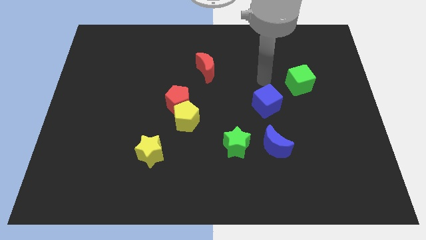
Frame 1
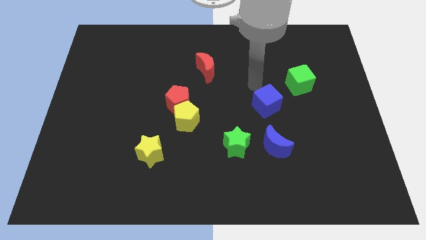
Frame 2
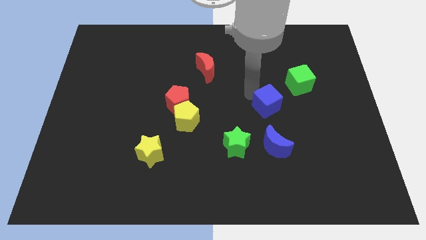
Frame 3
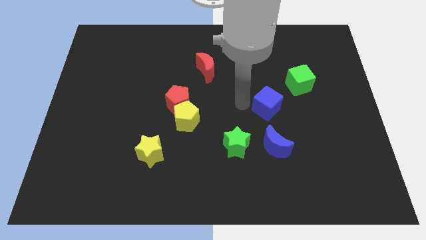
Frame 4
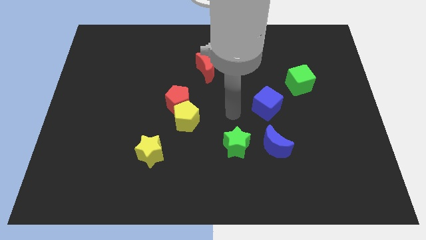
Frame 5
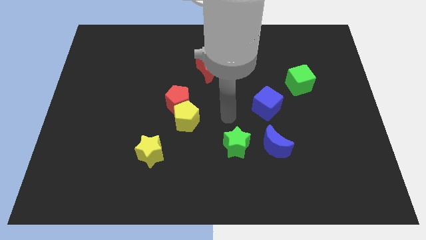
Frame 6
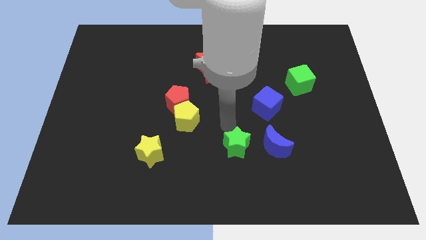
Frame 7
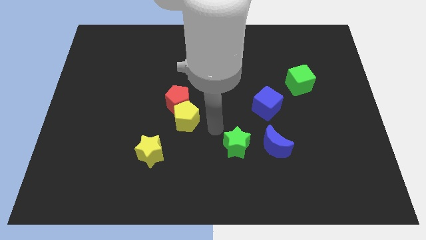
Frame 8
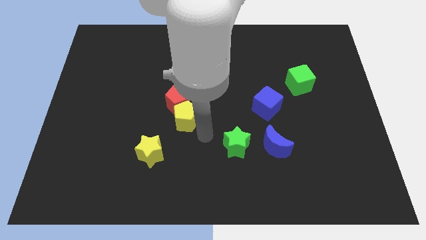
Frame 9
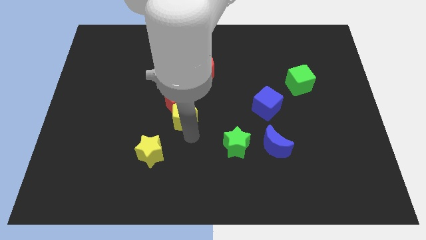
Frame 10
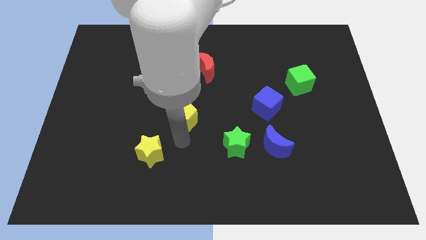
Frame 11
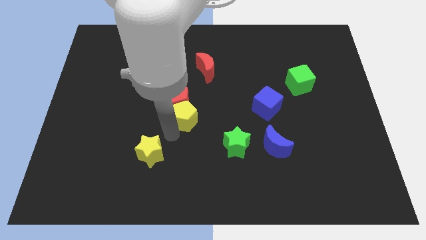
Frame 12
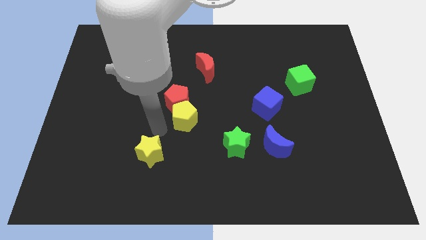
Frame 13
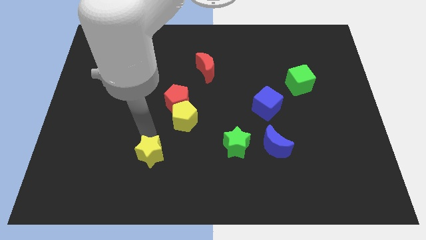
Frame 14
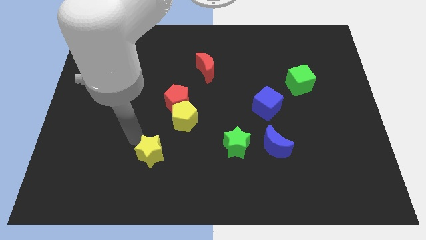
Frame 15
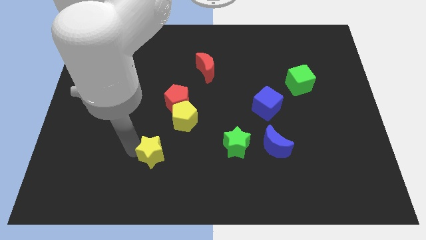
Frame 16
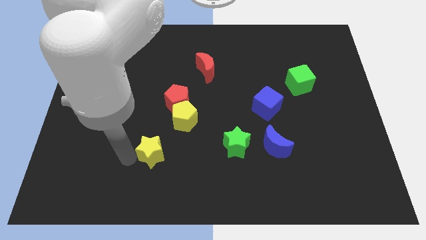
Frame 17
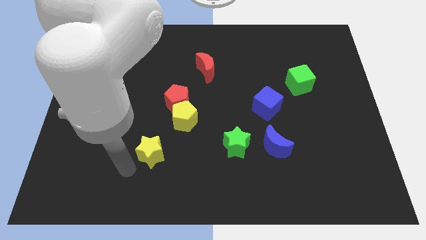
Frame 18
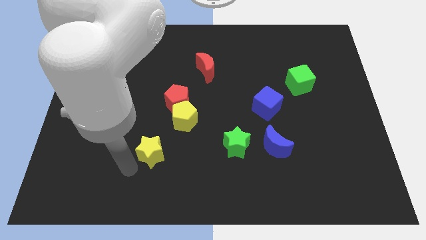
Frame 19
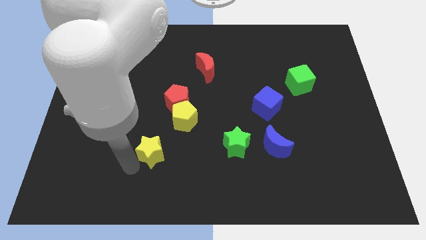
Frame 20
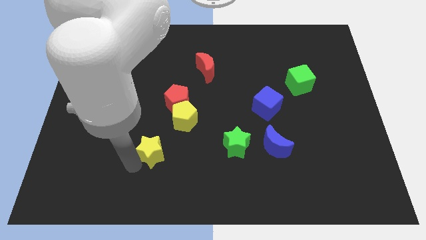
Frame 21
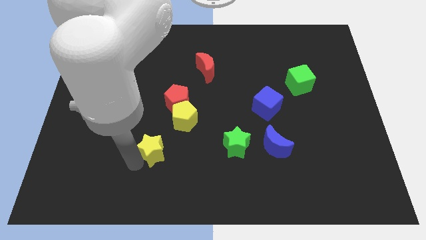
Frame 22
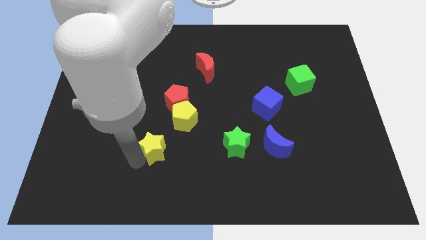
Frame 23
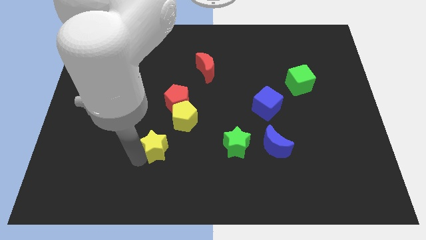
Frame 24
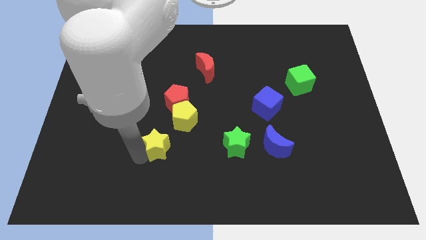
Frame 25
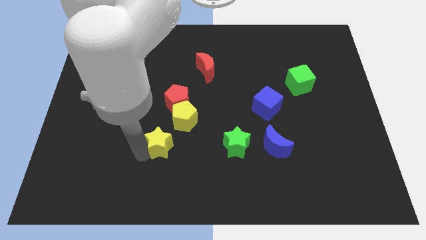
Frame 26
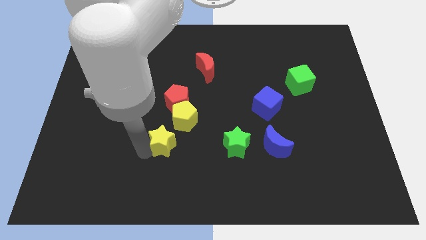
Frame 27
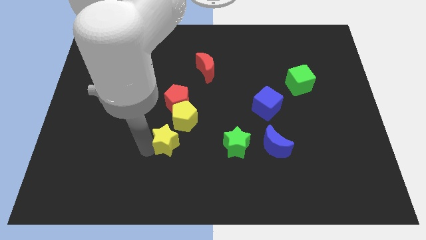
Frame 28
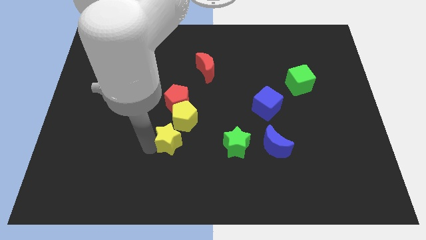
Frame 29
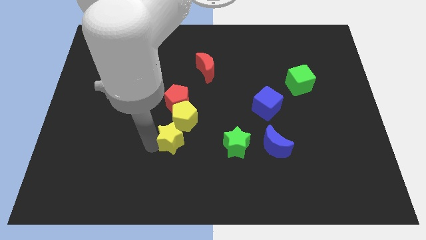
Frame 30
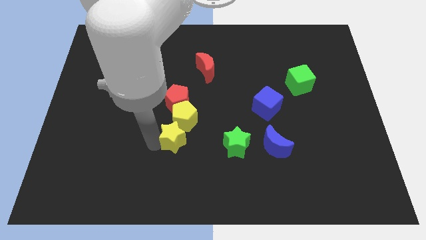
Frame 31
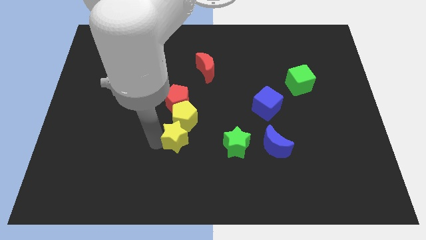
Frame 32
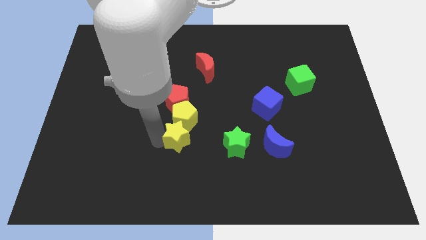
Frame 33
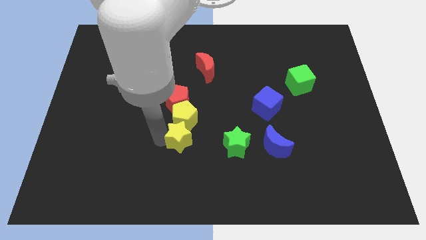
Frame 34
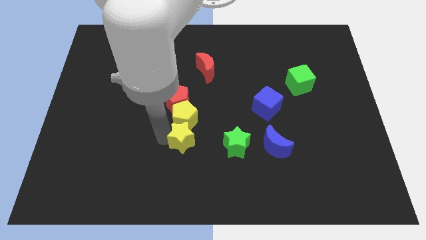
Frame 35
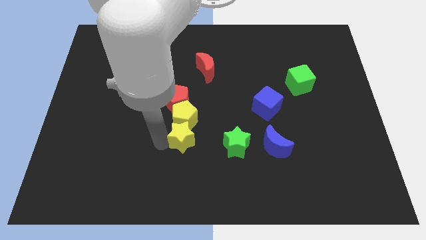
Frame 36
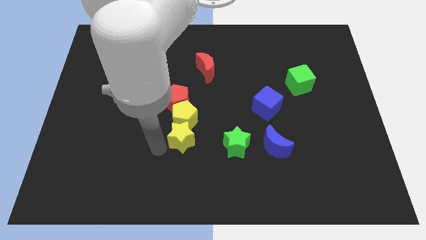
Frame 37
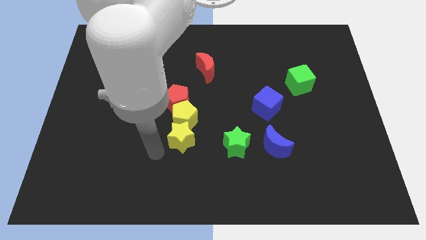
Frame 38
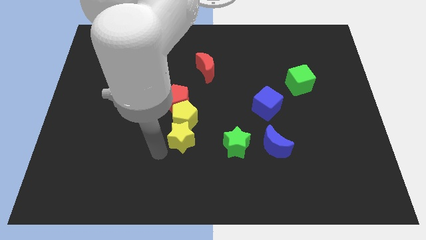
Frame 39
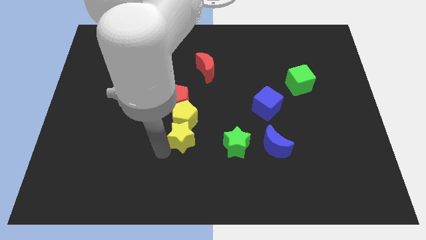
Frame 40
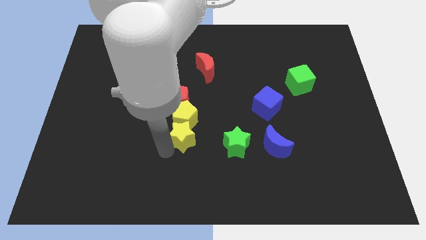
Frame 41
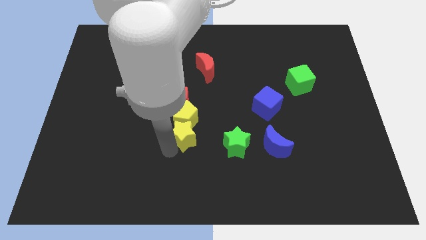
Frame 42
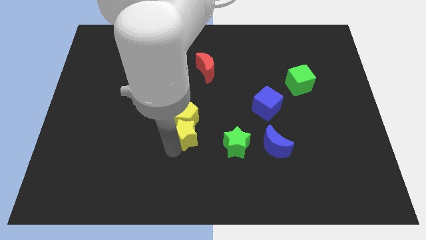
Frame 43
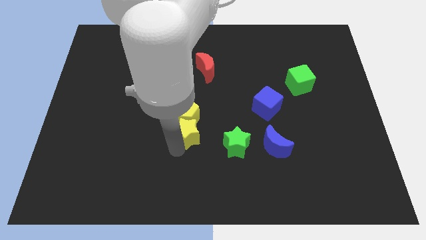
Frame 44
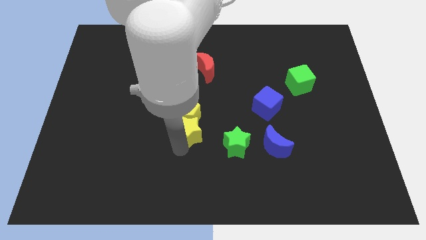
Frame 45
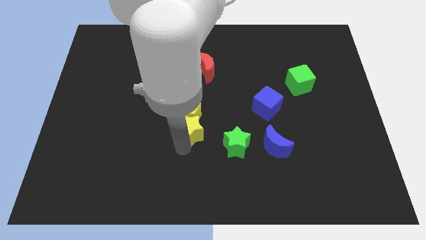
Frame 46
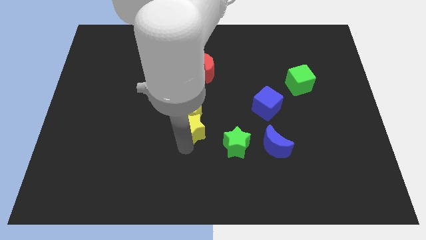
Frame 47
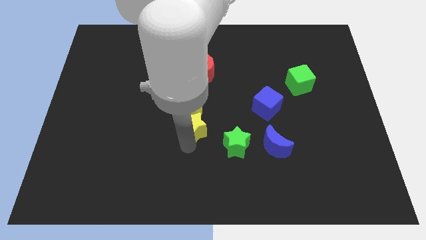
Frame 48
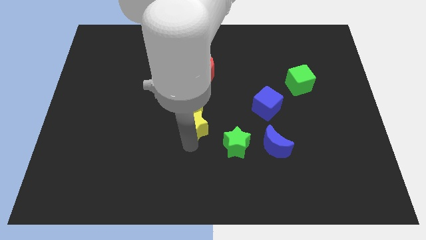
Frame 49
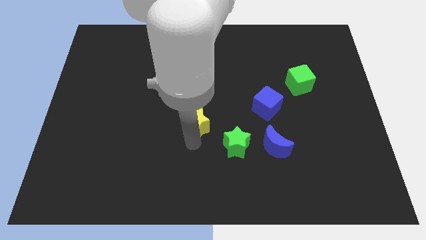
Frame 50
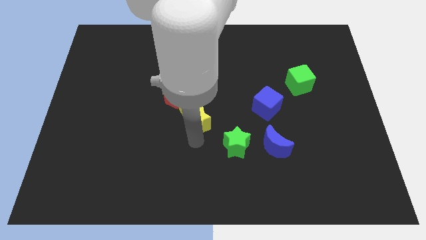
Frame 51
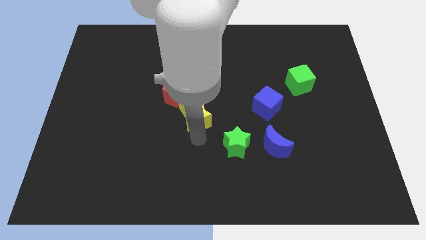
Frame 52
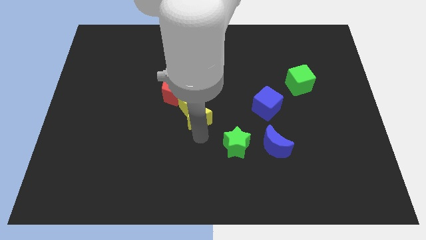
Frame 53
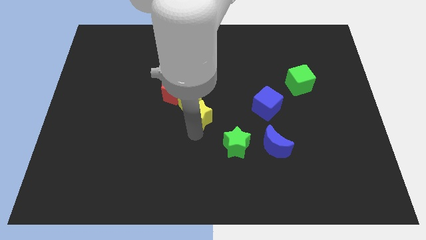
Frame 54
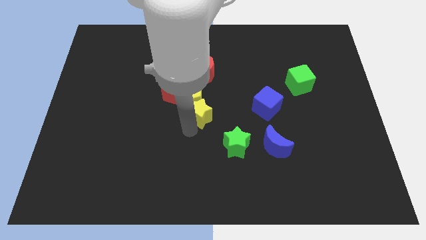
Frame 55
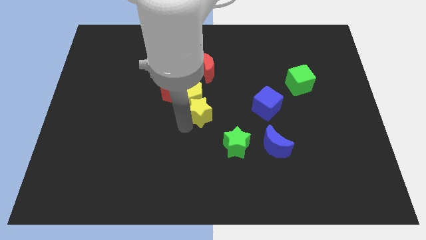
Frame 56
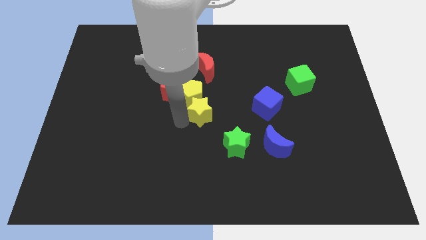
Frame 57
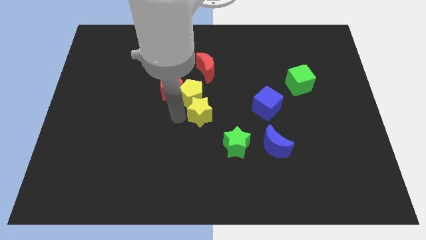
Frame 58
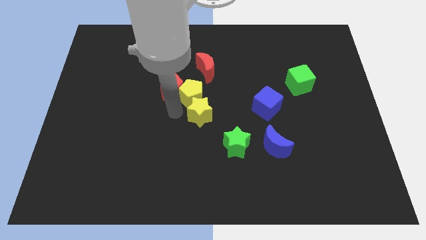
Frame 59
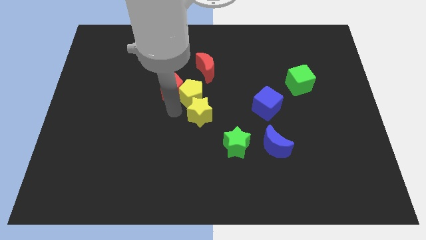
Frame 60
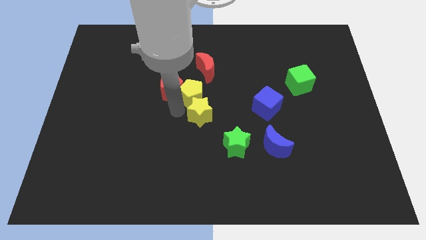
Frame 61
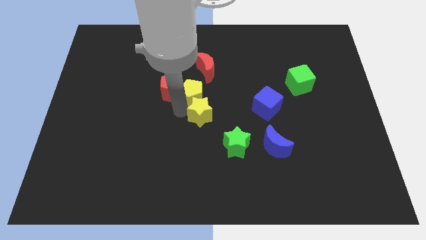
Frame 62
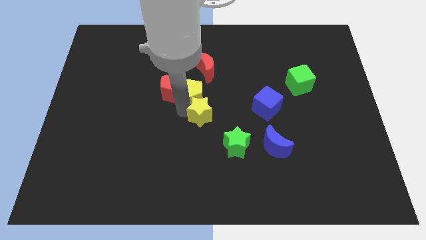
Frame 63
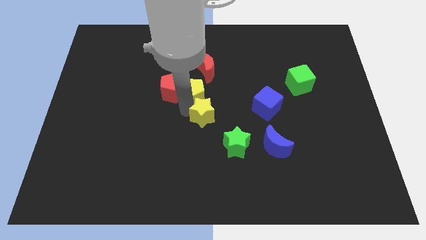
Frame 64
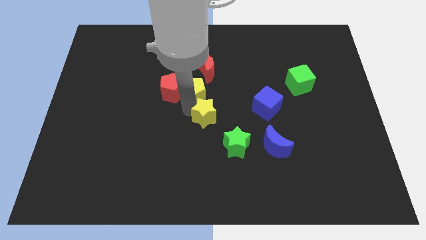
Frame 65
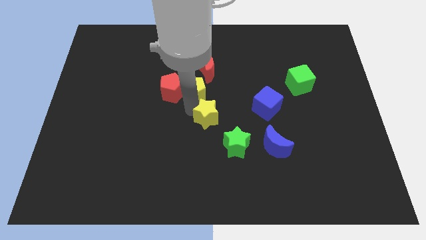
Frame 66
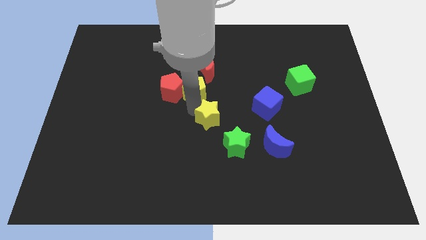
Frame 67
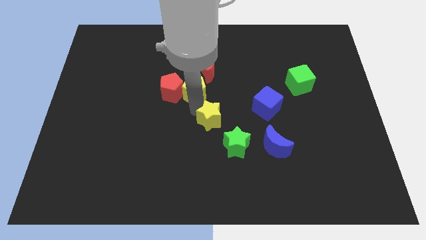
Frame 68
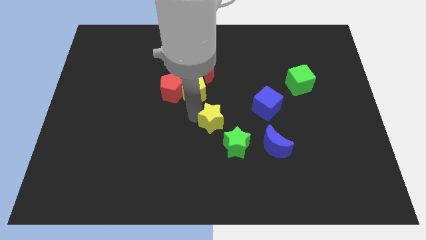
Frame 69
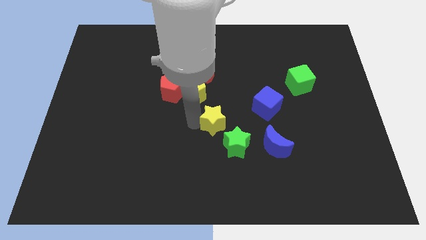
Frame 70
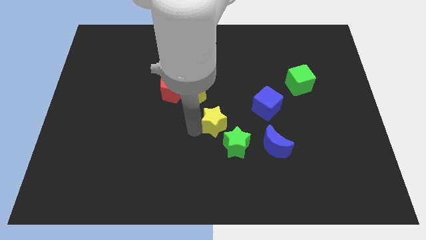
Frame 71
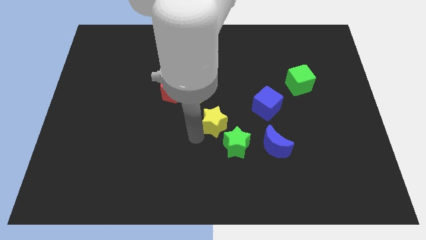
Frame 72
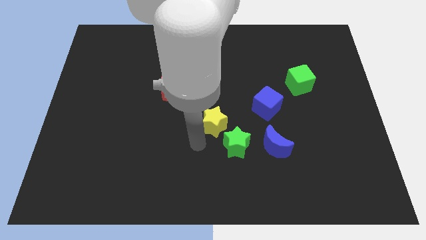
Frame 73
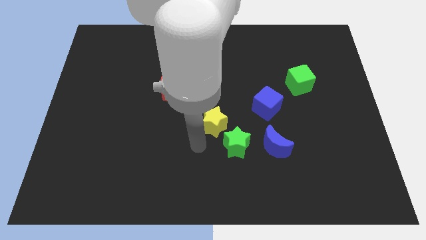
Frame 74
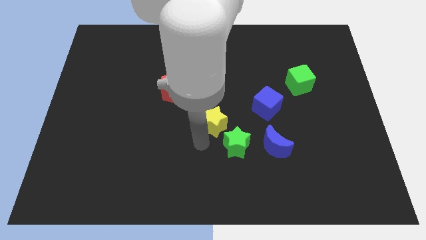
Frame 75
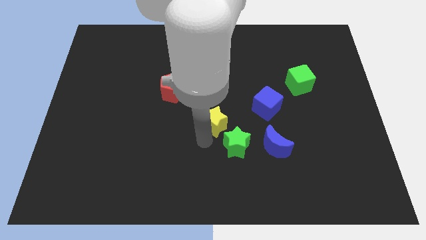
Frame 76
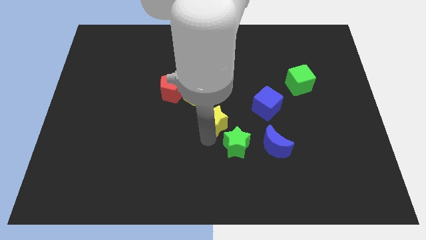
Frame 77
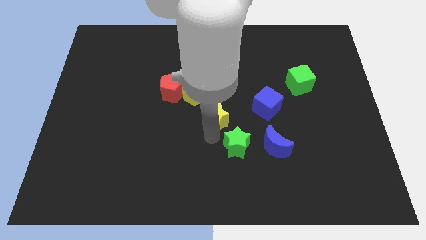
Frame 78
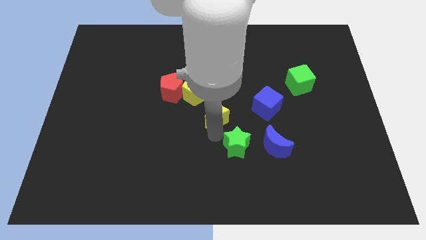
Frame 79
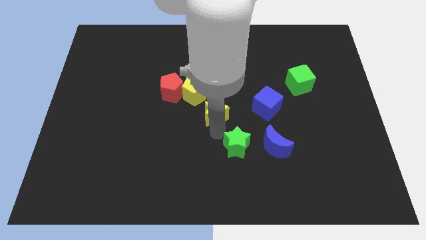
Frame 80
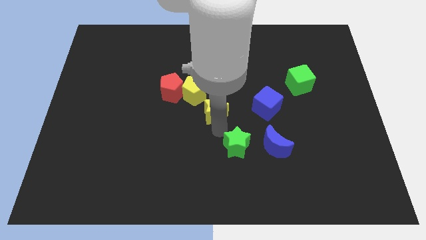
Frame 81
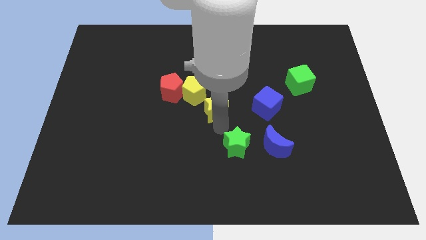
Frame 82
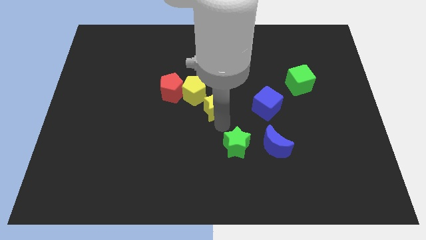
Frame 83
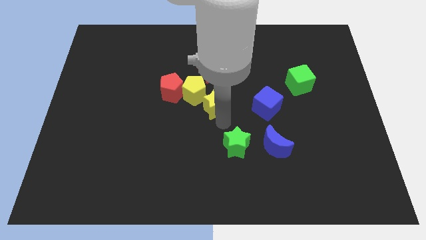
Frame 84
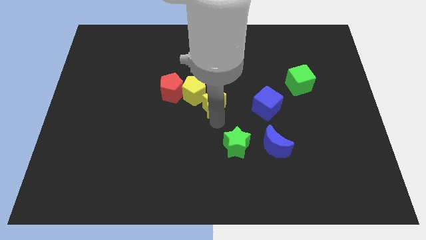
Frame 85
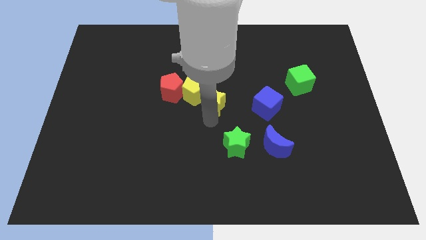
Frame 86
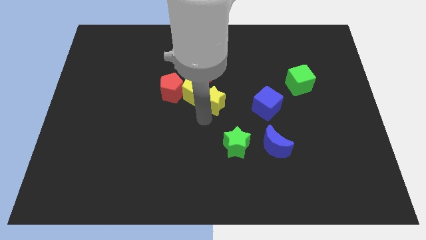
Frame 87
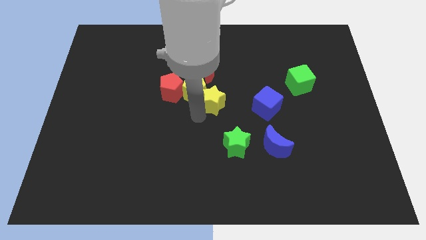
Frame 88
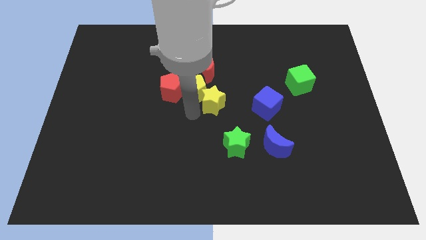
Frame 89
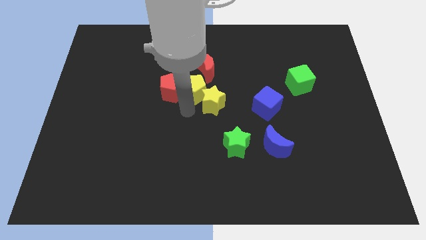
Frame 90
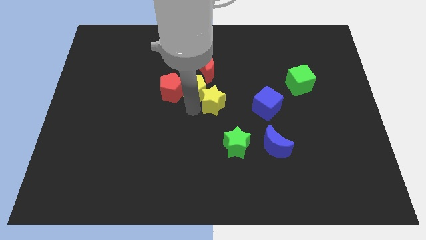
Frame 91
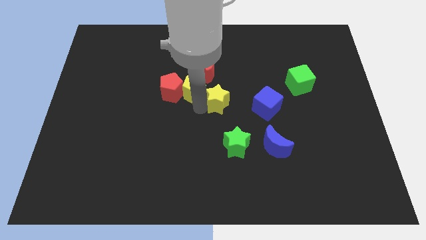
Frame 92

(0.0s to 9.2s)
slide the yellow star upwards and right
